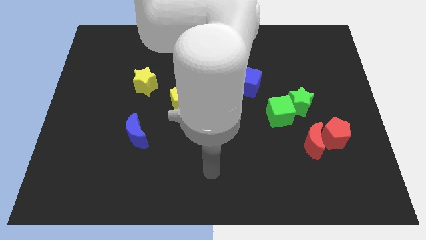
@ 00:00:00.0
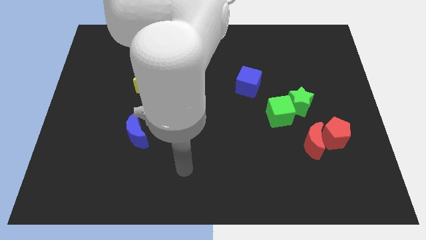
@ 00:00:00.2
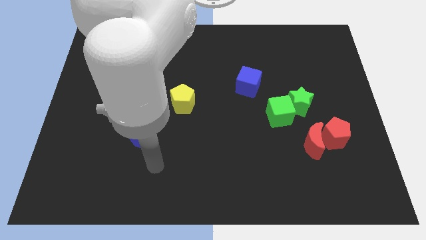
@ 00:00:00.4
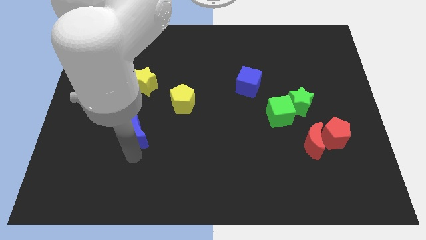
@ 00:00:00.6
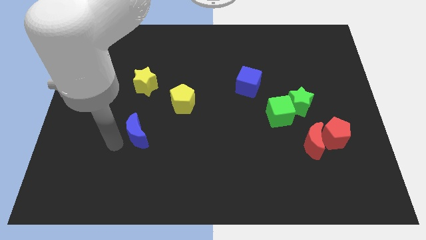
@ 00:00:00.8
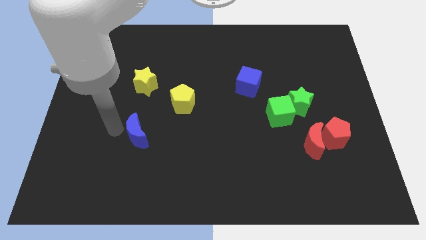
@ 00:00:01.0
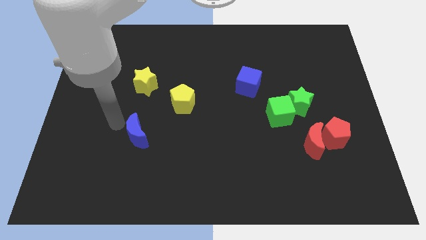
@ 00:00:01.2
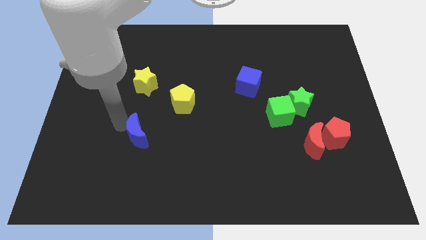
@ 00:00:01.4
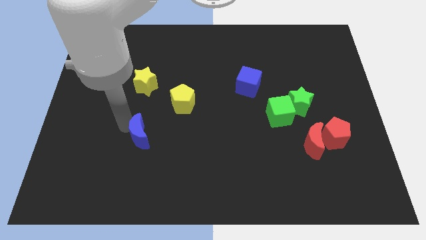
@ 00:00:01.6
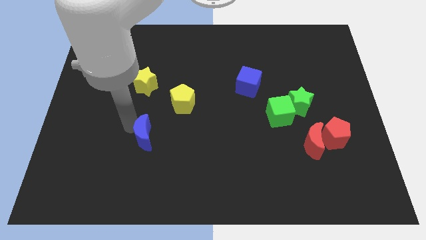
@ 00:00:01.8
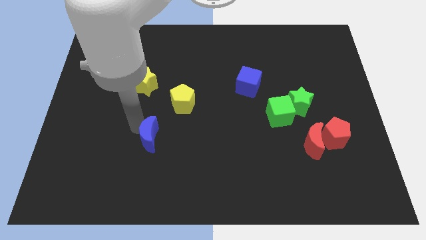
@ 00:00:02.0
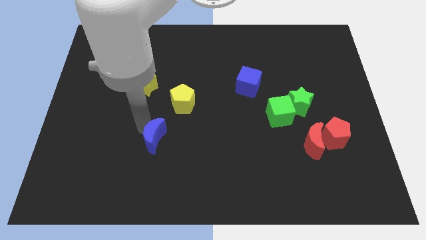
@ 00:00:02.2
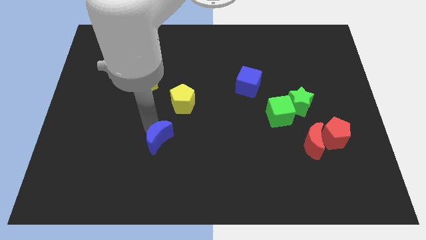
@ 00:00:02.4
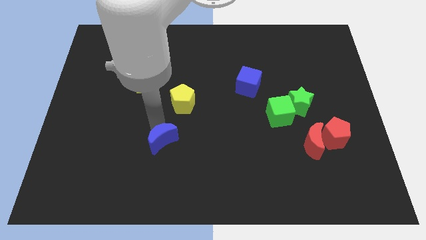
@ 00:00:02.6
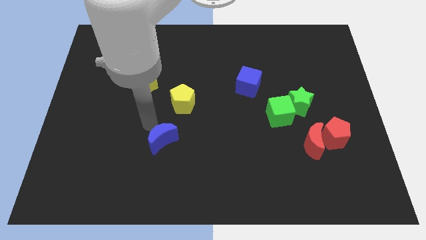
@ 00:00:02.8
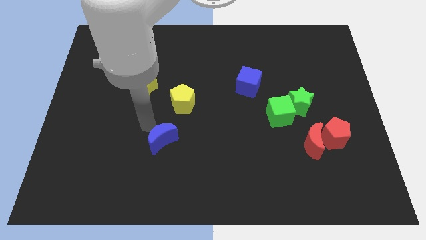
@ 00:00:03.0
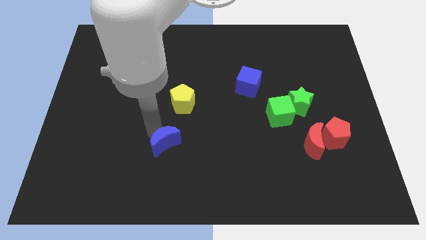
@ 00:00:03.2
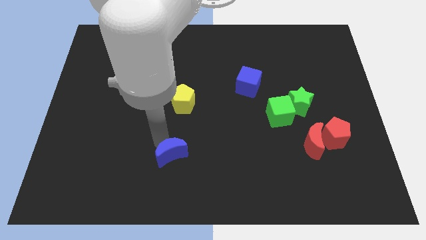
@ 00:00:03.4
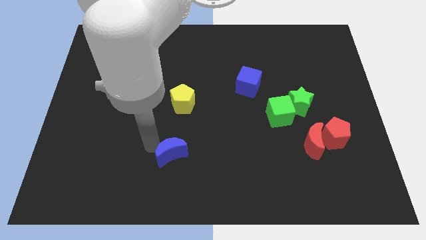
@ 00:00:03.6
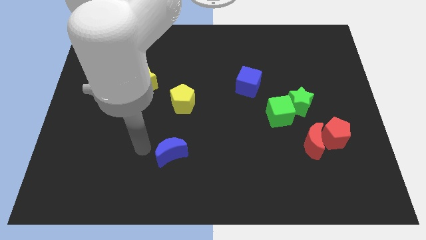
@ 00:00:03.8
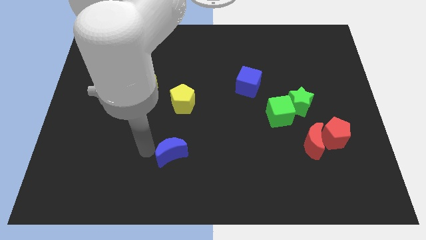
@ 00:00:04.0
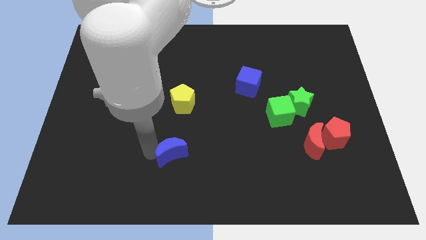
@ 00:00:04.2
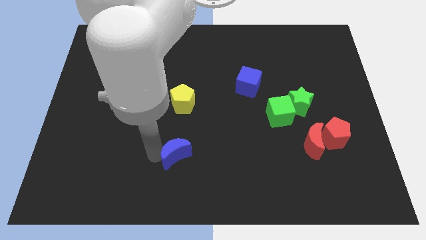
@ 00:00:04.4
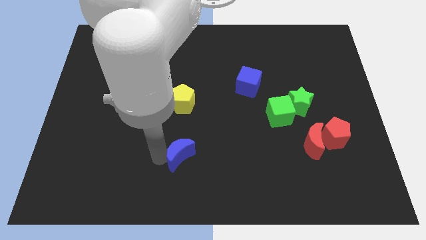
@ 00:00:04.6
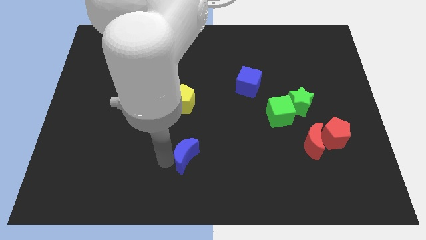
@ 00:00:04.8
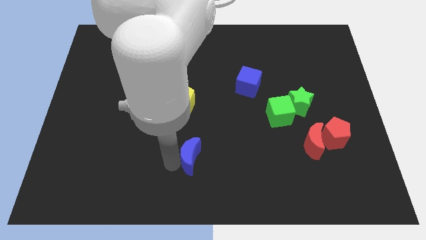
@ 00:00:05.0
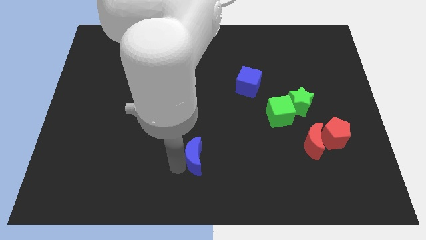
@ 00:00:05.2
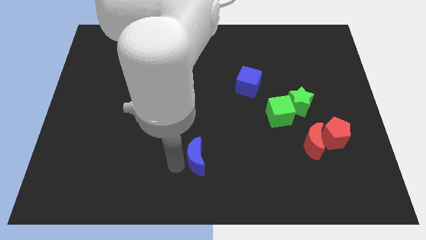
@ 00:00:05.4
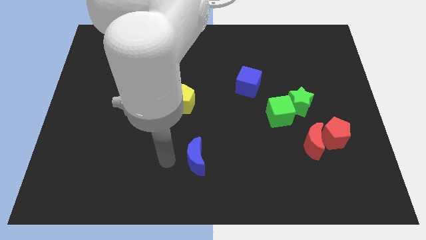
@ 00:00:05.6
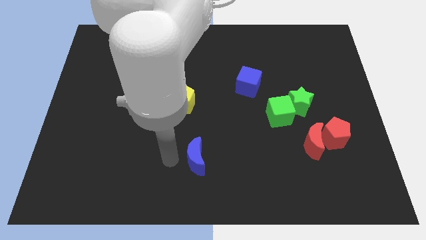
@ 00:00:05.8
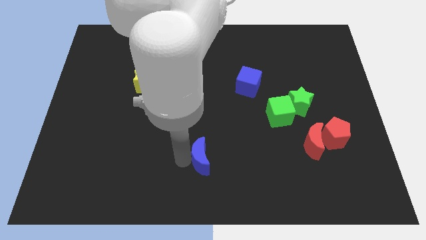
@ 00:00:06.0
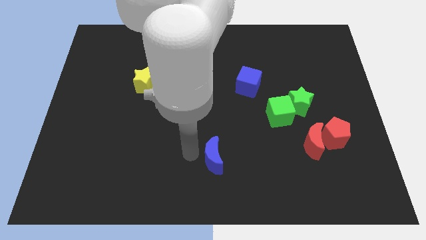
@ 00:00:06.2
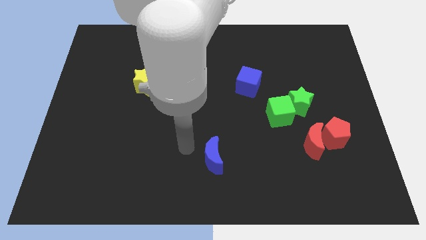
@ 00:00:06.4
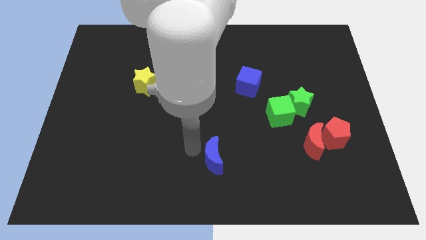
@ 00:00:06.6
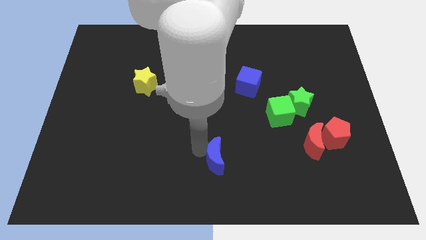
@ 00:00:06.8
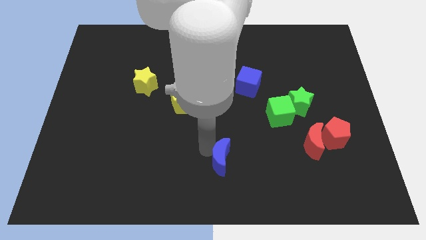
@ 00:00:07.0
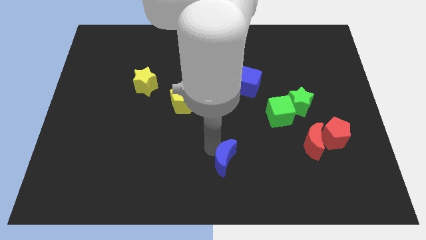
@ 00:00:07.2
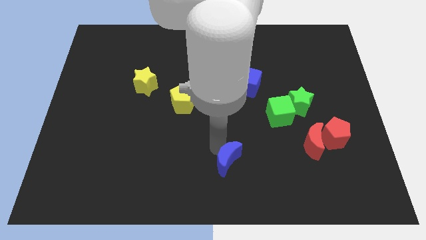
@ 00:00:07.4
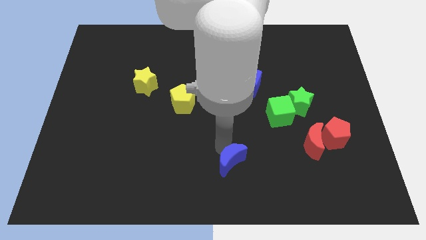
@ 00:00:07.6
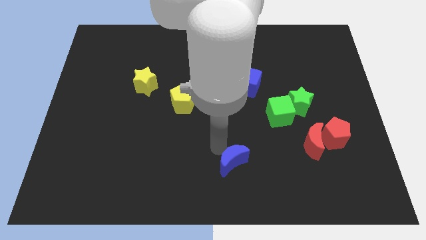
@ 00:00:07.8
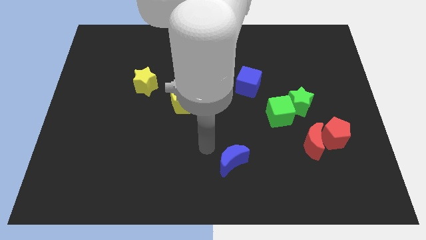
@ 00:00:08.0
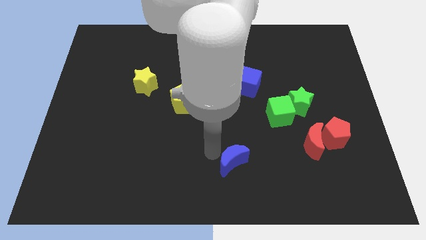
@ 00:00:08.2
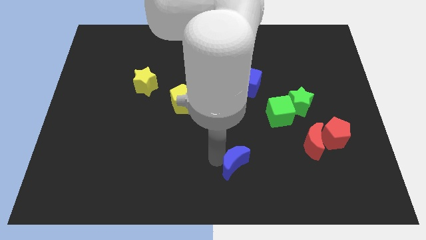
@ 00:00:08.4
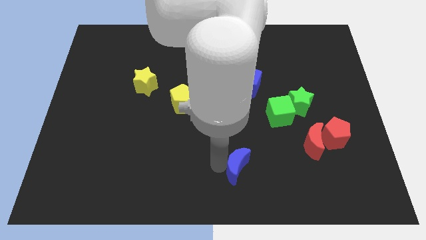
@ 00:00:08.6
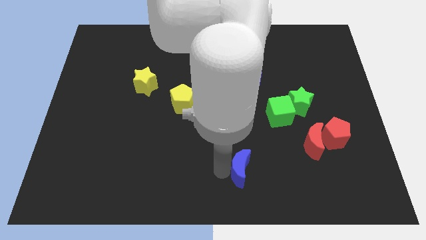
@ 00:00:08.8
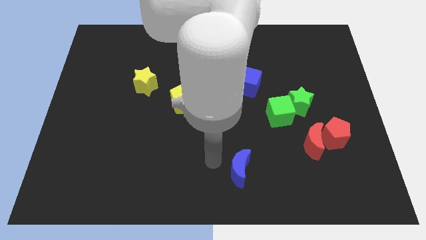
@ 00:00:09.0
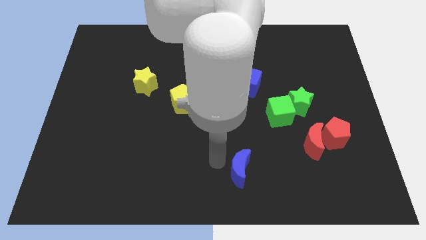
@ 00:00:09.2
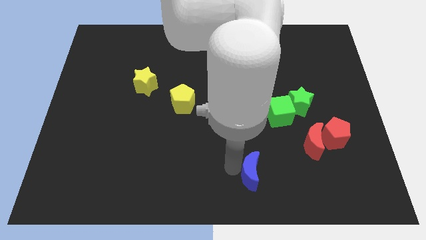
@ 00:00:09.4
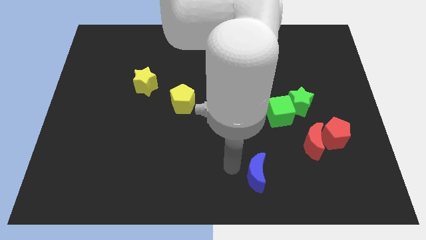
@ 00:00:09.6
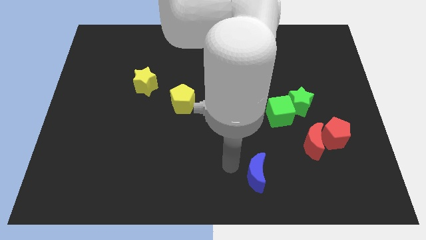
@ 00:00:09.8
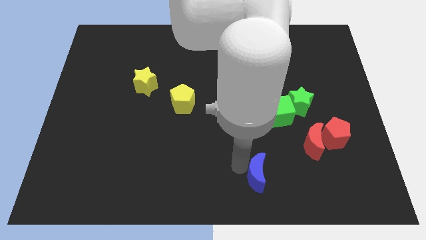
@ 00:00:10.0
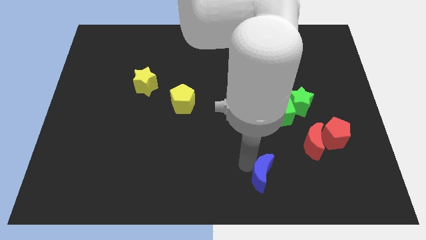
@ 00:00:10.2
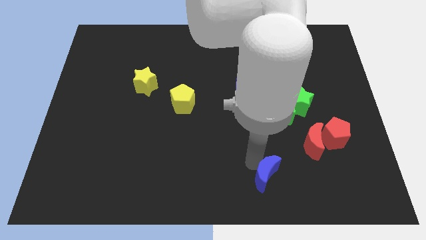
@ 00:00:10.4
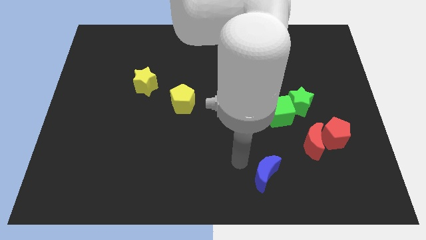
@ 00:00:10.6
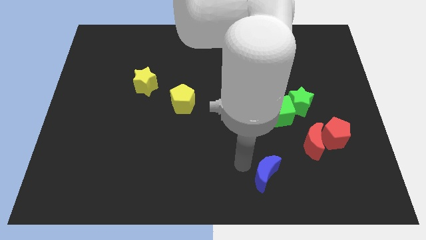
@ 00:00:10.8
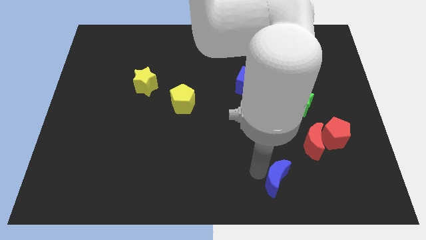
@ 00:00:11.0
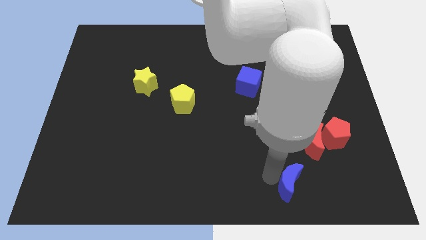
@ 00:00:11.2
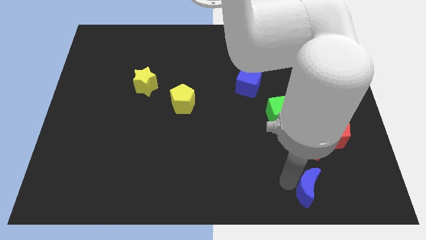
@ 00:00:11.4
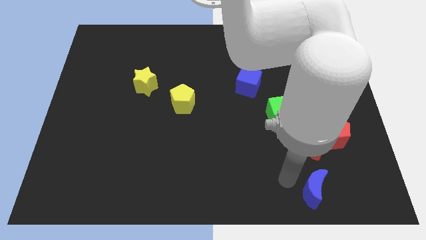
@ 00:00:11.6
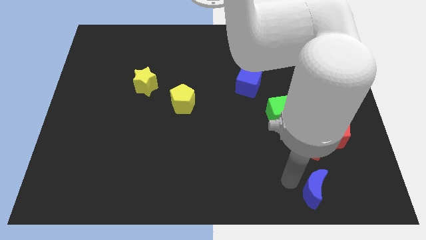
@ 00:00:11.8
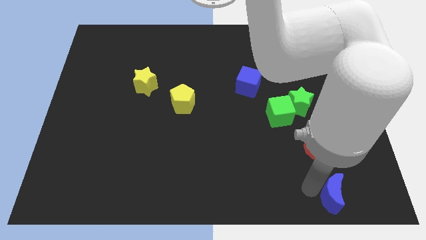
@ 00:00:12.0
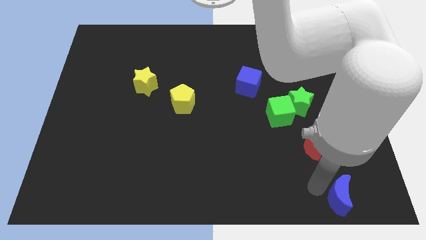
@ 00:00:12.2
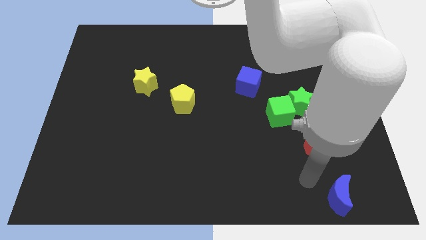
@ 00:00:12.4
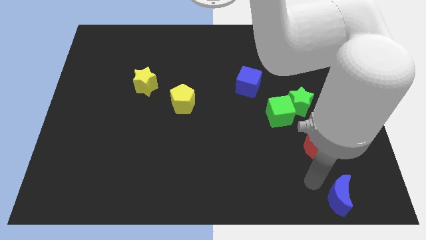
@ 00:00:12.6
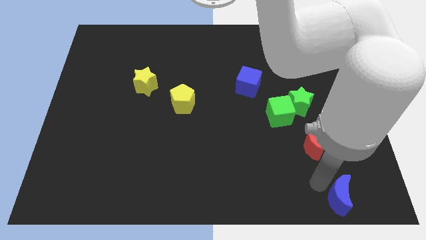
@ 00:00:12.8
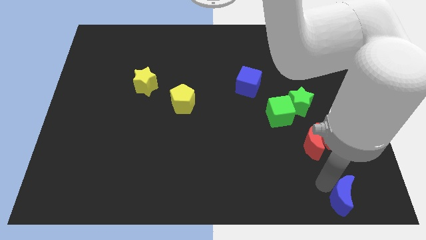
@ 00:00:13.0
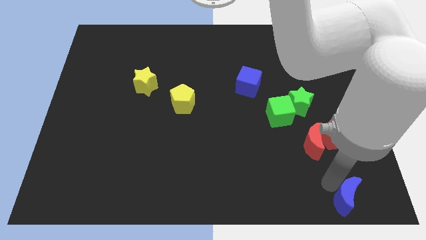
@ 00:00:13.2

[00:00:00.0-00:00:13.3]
move the blue moon to the bottom right corner
